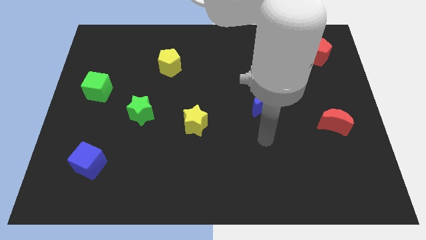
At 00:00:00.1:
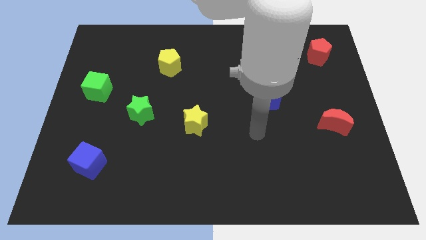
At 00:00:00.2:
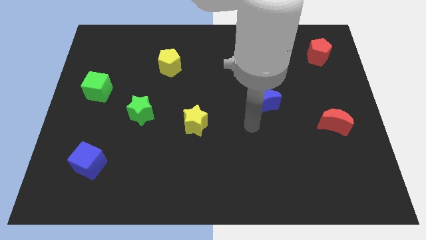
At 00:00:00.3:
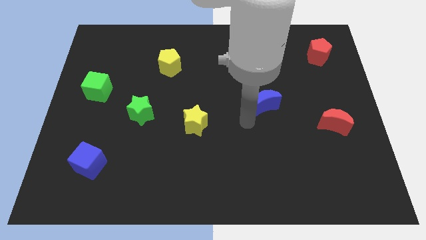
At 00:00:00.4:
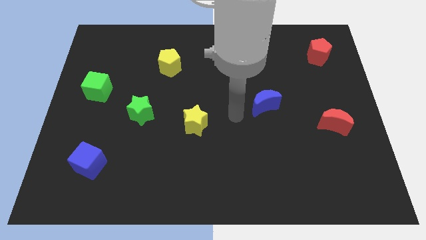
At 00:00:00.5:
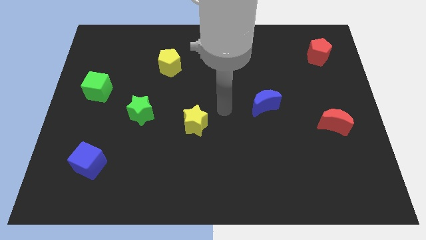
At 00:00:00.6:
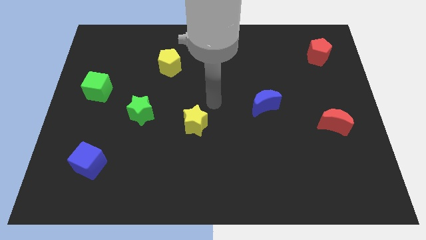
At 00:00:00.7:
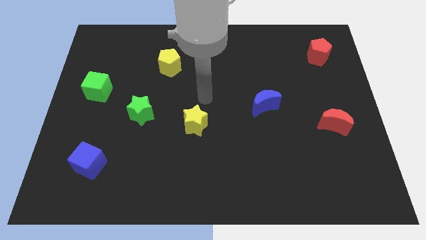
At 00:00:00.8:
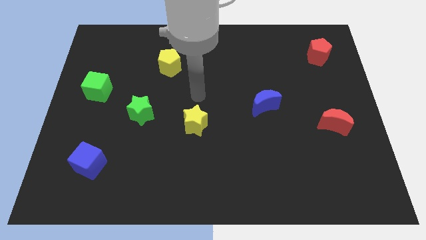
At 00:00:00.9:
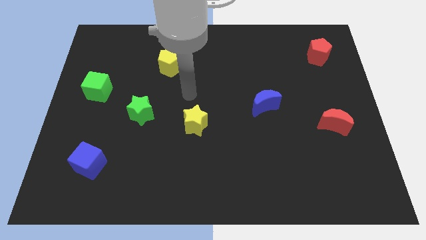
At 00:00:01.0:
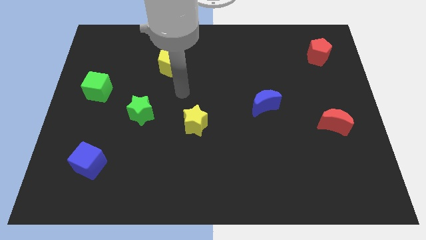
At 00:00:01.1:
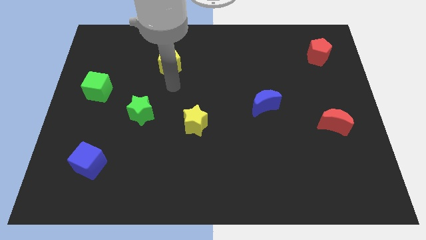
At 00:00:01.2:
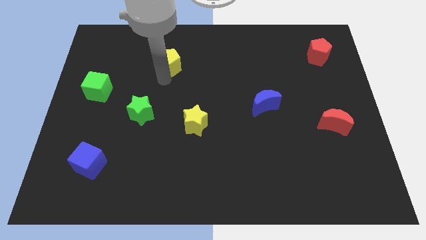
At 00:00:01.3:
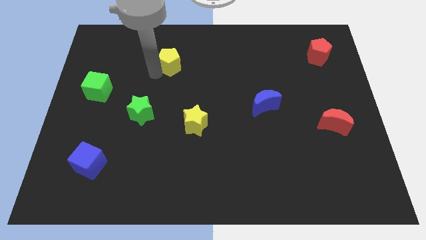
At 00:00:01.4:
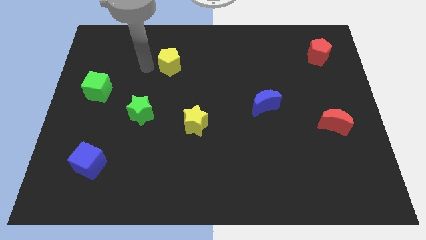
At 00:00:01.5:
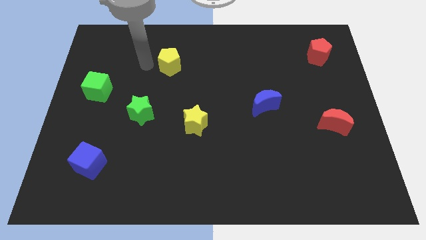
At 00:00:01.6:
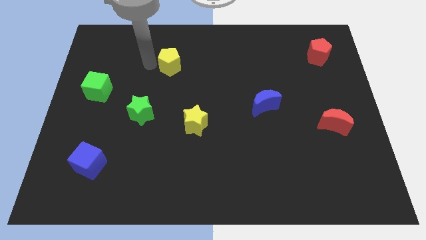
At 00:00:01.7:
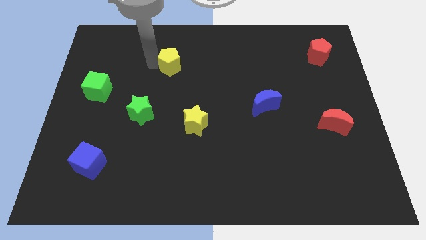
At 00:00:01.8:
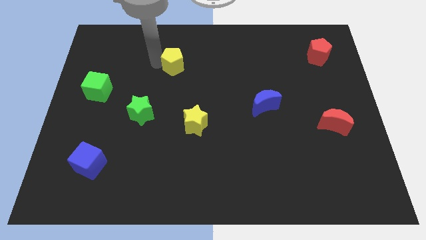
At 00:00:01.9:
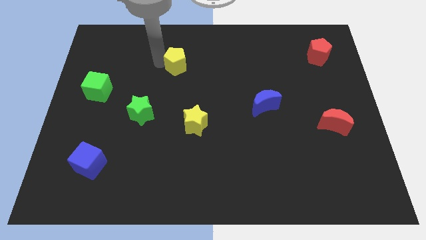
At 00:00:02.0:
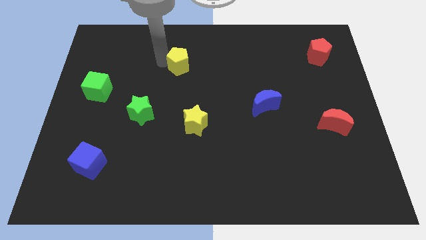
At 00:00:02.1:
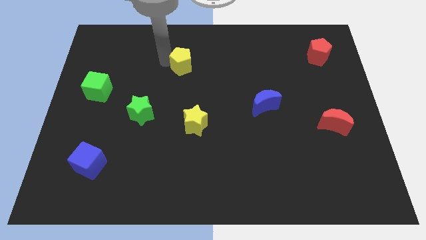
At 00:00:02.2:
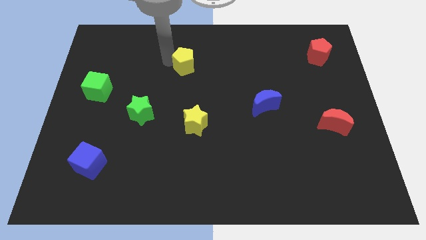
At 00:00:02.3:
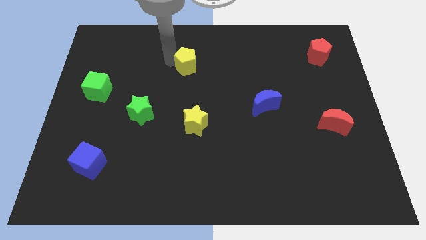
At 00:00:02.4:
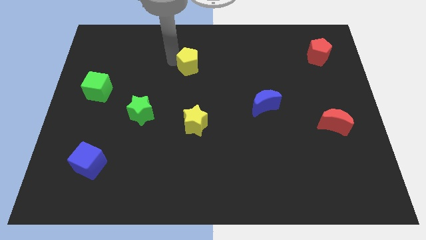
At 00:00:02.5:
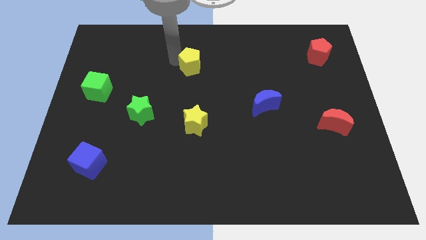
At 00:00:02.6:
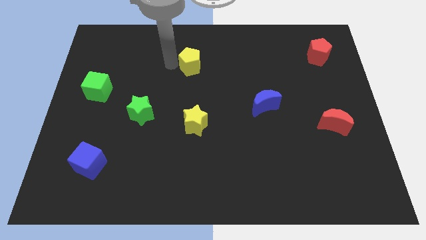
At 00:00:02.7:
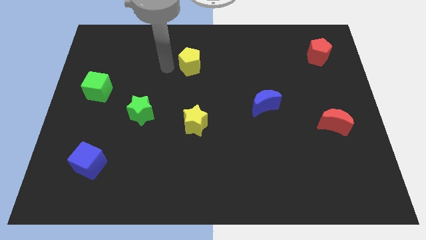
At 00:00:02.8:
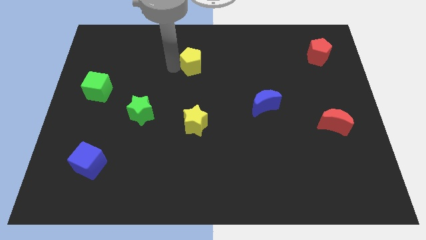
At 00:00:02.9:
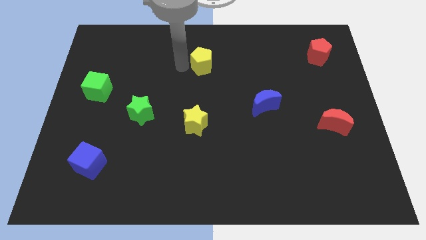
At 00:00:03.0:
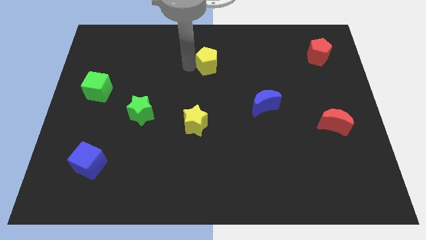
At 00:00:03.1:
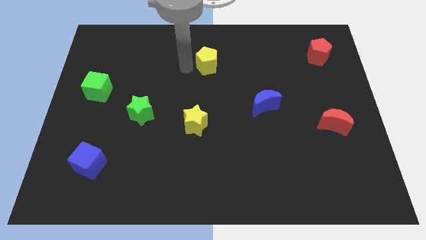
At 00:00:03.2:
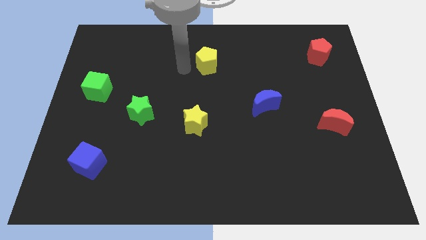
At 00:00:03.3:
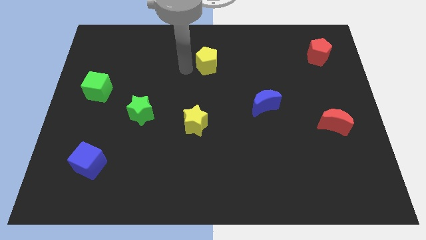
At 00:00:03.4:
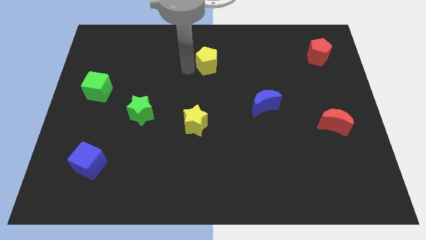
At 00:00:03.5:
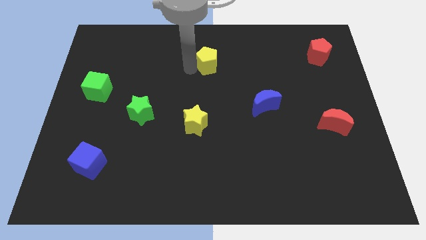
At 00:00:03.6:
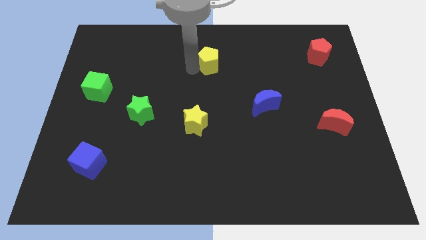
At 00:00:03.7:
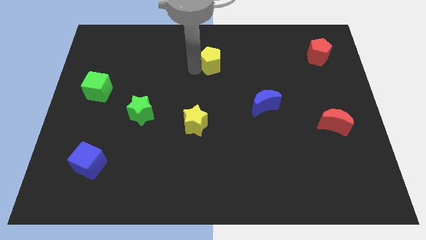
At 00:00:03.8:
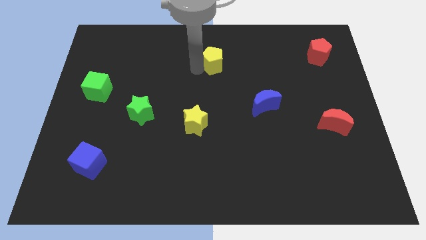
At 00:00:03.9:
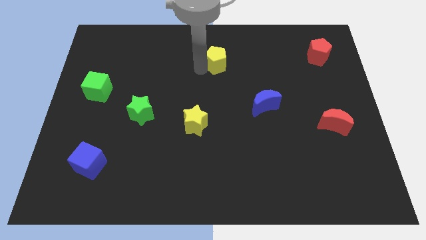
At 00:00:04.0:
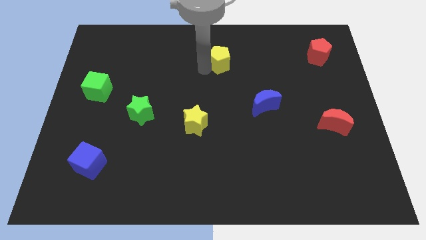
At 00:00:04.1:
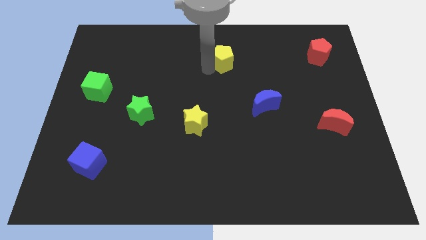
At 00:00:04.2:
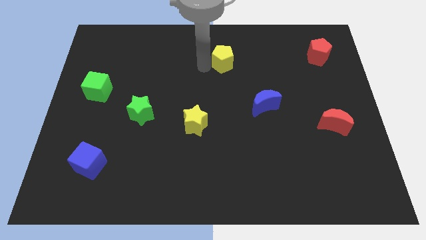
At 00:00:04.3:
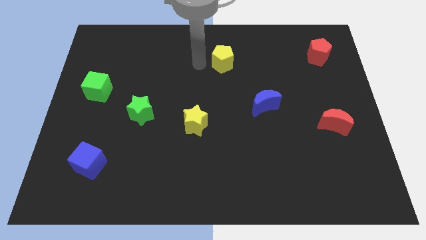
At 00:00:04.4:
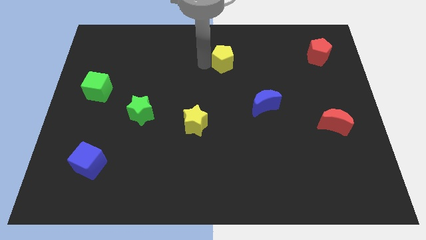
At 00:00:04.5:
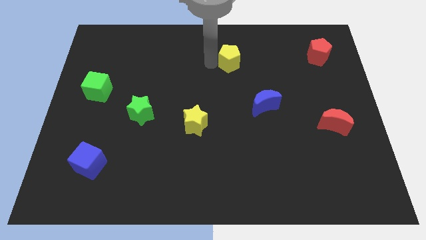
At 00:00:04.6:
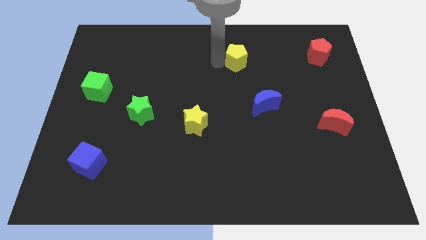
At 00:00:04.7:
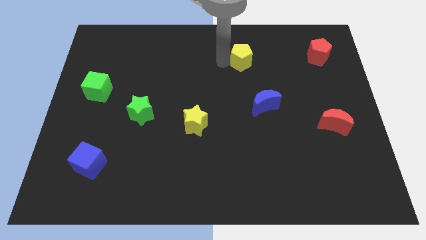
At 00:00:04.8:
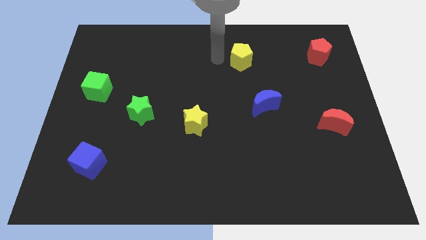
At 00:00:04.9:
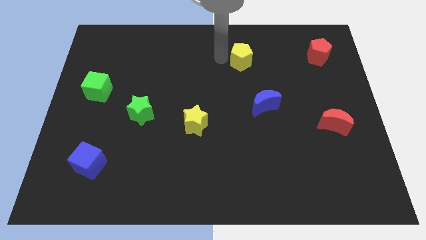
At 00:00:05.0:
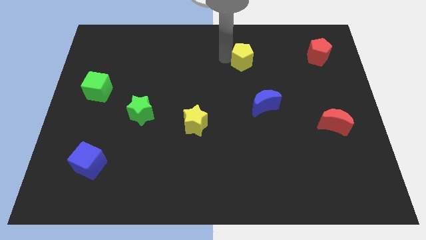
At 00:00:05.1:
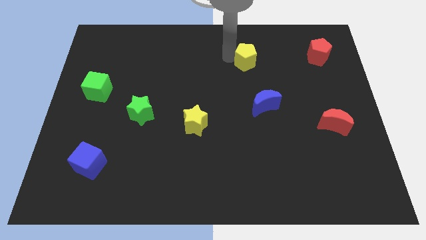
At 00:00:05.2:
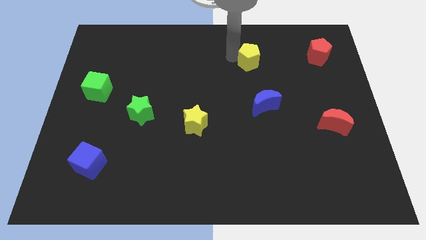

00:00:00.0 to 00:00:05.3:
slide the yellow pentagon right

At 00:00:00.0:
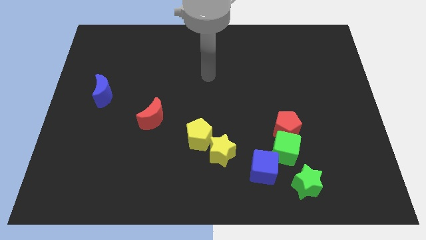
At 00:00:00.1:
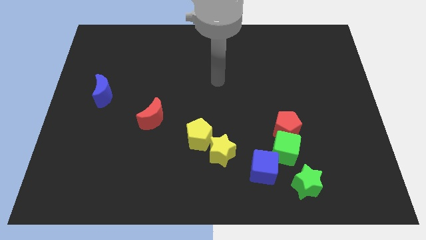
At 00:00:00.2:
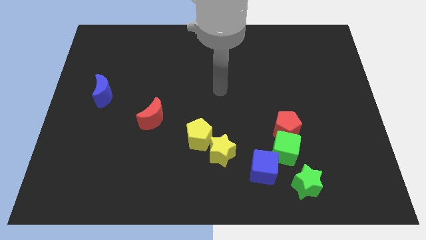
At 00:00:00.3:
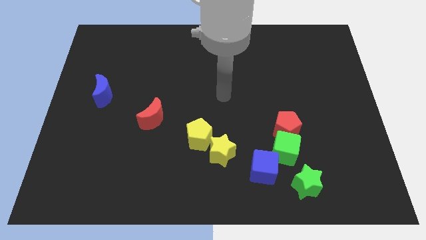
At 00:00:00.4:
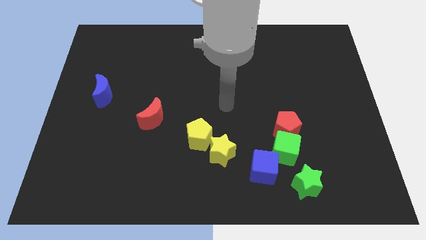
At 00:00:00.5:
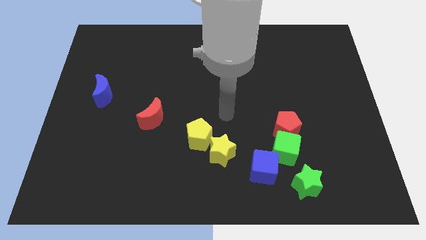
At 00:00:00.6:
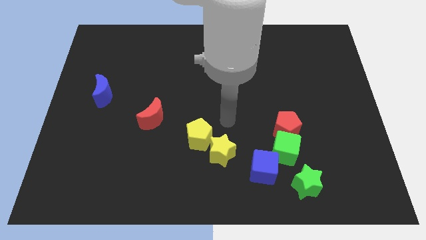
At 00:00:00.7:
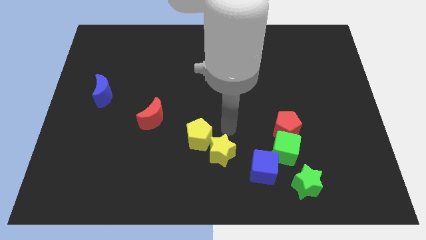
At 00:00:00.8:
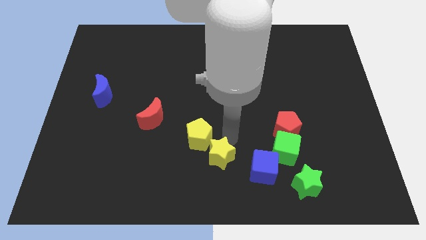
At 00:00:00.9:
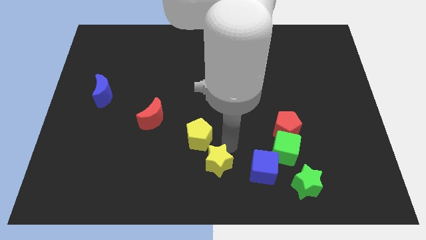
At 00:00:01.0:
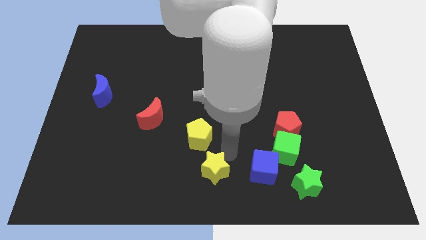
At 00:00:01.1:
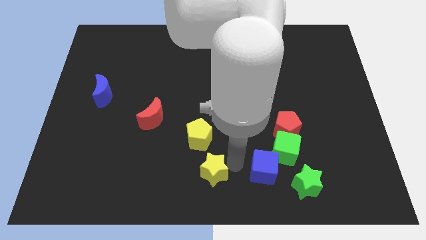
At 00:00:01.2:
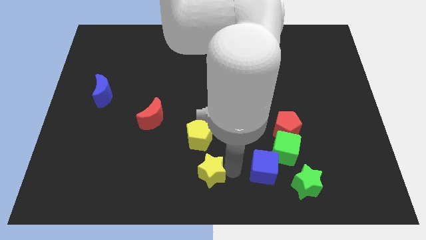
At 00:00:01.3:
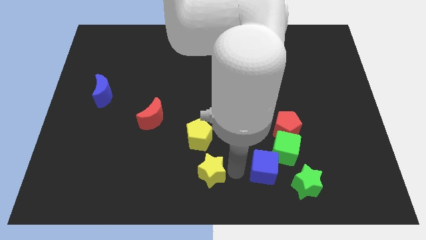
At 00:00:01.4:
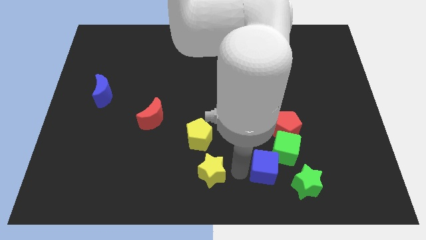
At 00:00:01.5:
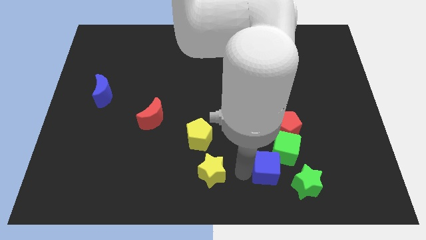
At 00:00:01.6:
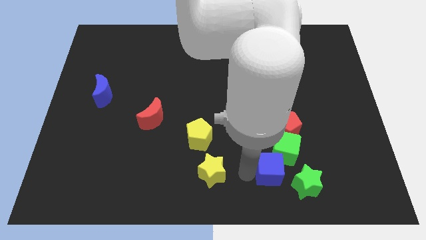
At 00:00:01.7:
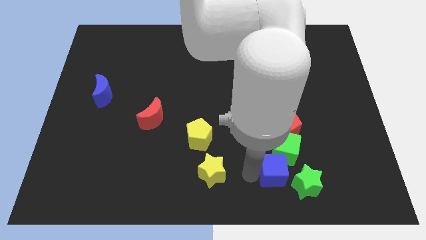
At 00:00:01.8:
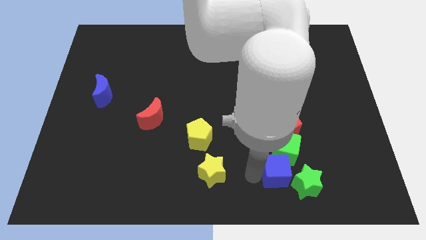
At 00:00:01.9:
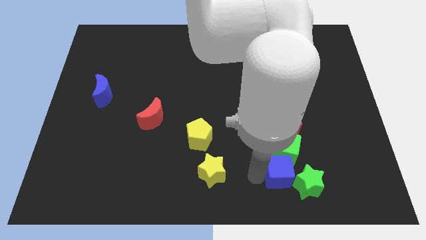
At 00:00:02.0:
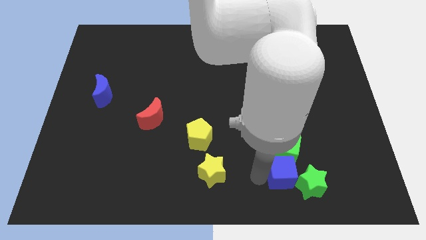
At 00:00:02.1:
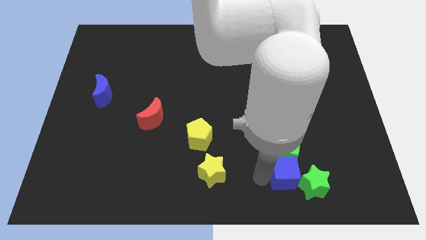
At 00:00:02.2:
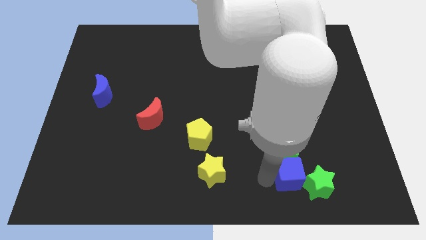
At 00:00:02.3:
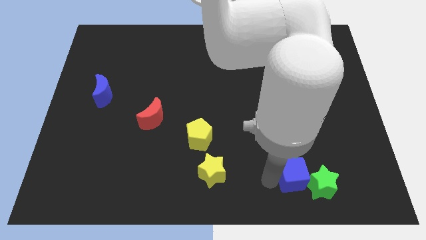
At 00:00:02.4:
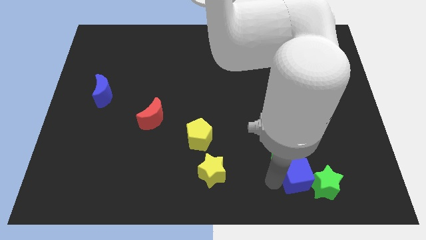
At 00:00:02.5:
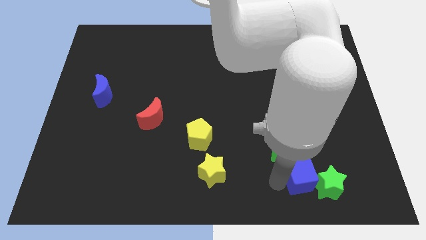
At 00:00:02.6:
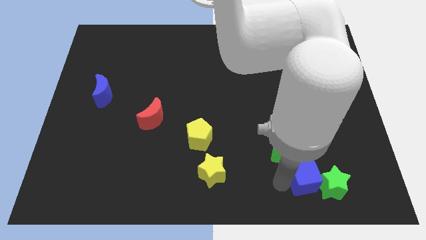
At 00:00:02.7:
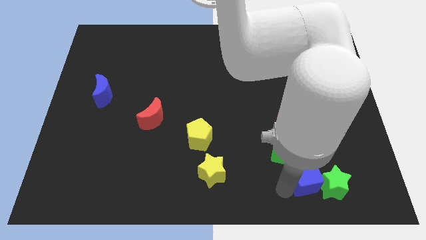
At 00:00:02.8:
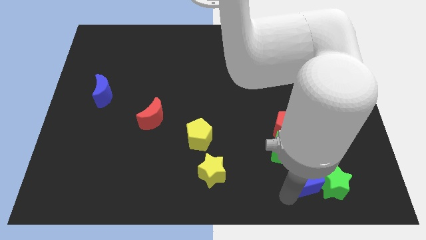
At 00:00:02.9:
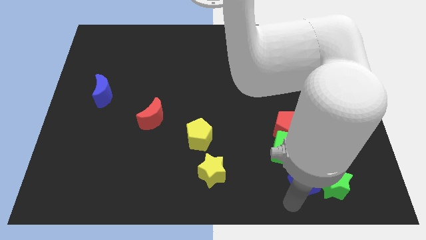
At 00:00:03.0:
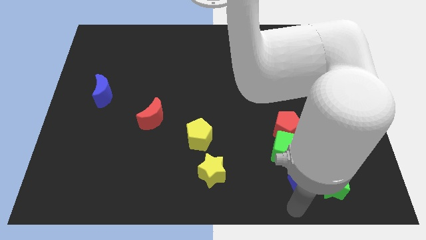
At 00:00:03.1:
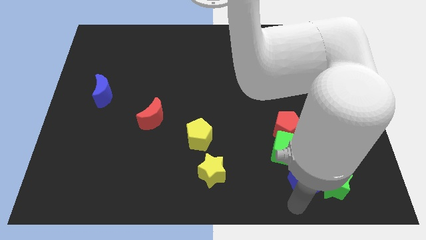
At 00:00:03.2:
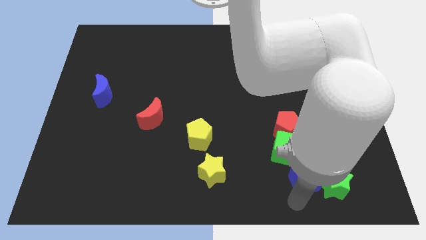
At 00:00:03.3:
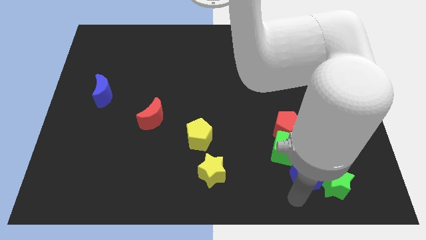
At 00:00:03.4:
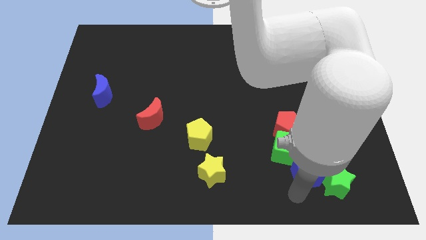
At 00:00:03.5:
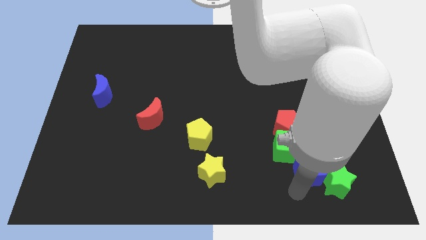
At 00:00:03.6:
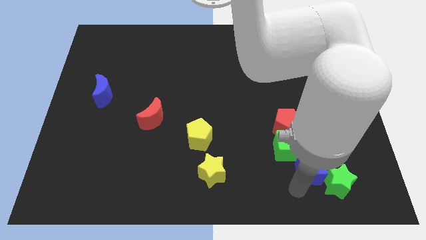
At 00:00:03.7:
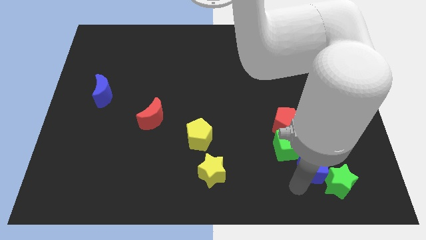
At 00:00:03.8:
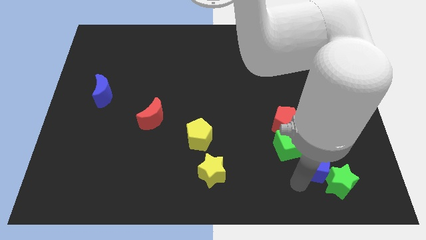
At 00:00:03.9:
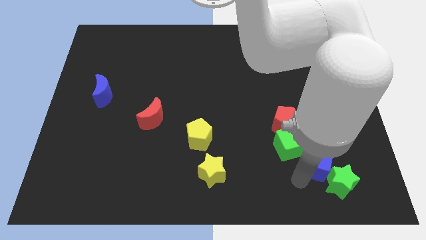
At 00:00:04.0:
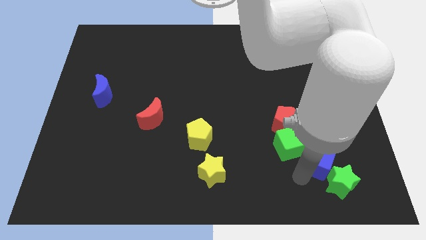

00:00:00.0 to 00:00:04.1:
move the blue cube up and to the right somewhat
